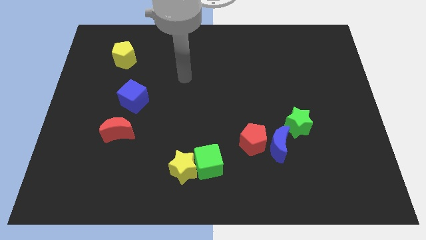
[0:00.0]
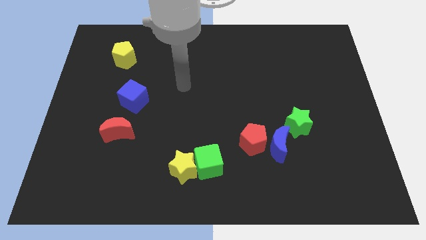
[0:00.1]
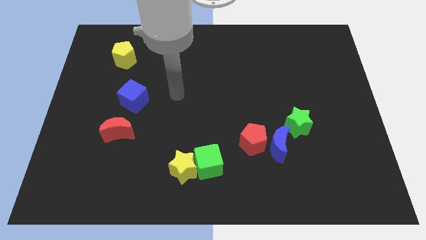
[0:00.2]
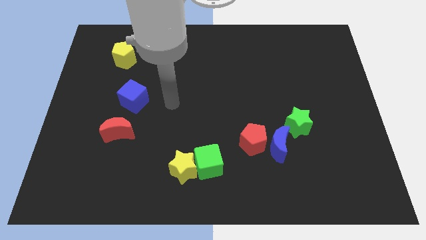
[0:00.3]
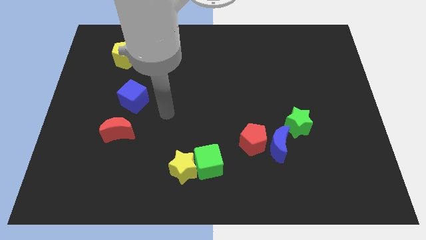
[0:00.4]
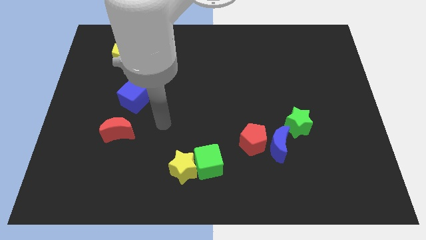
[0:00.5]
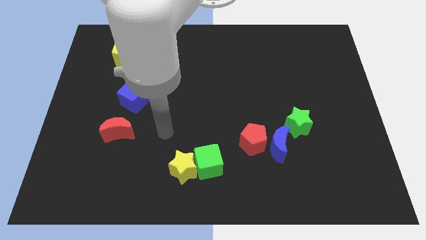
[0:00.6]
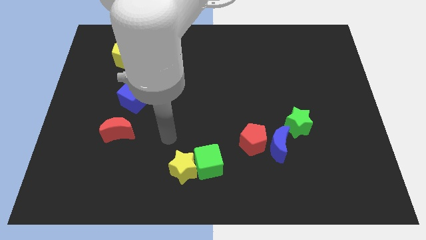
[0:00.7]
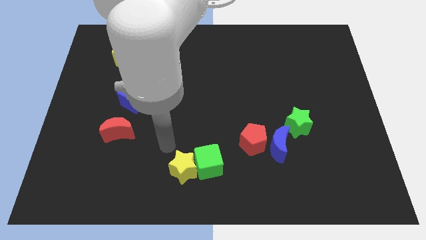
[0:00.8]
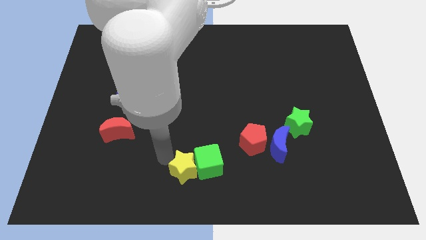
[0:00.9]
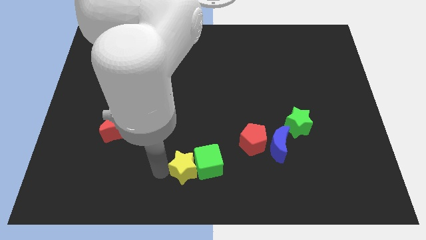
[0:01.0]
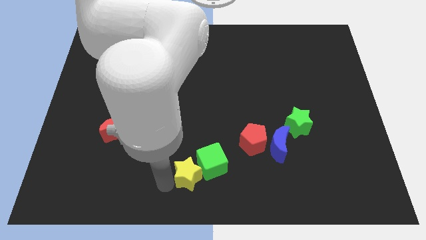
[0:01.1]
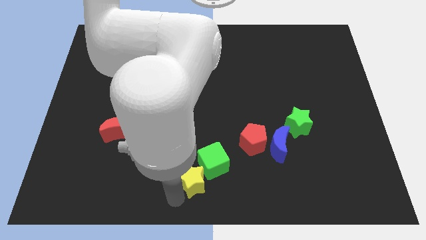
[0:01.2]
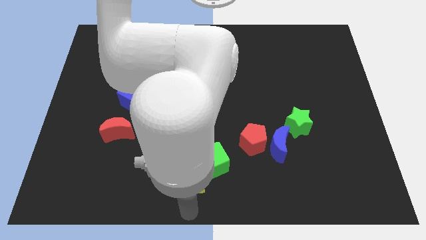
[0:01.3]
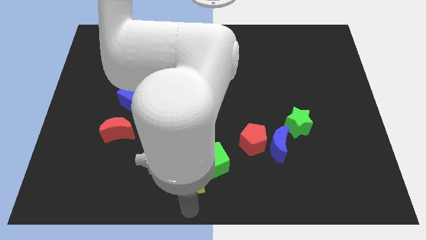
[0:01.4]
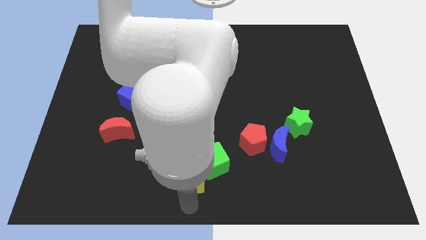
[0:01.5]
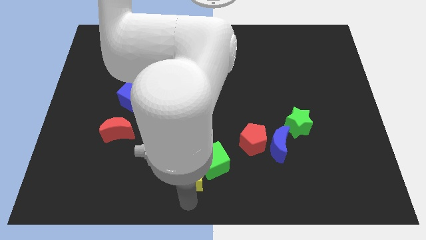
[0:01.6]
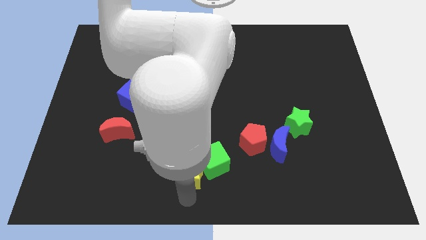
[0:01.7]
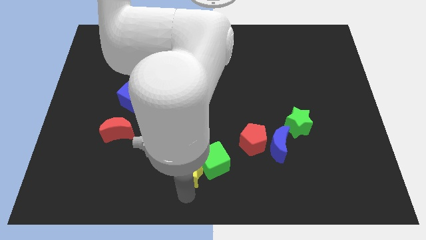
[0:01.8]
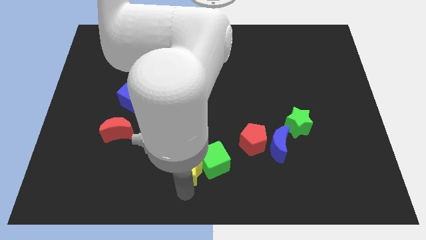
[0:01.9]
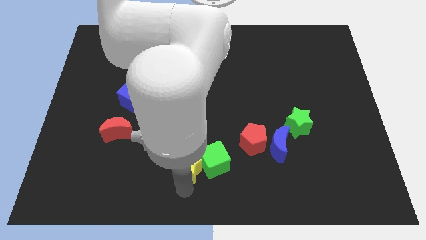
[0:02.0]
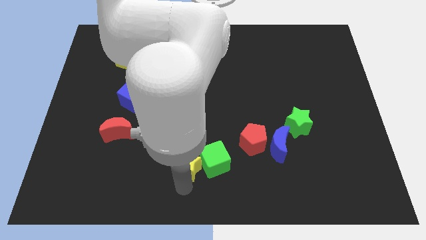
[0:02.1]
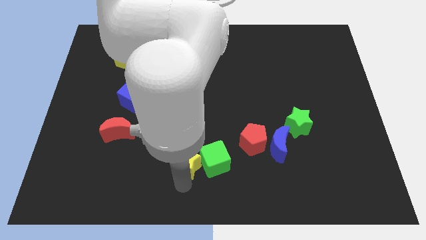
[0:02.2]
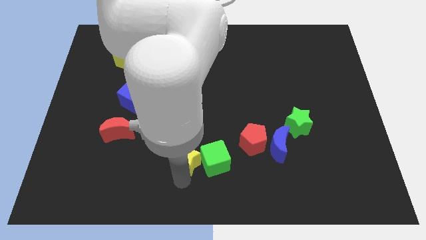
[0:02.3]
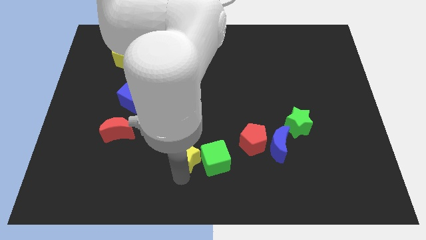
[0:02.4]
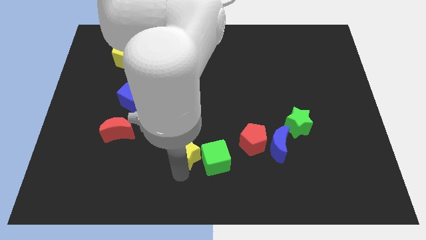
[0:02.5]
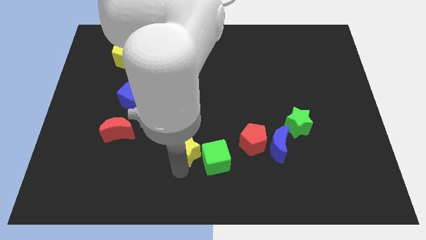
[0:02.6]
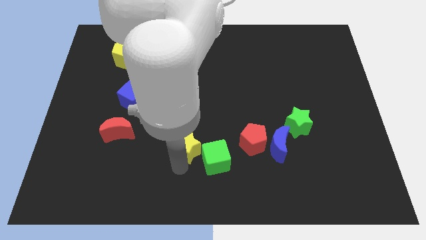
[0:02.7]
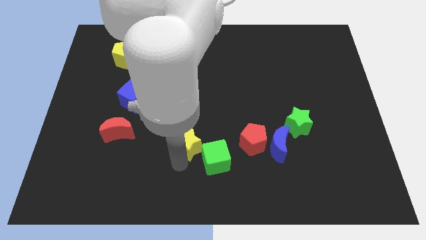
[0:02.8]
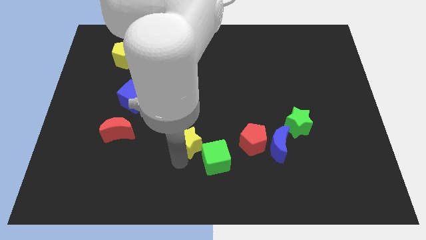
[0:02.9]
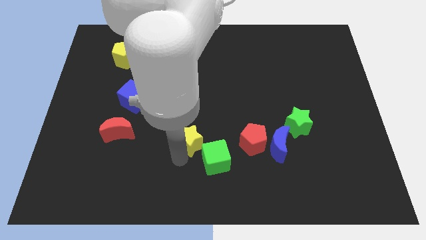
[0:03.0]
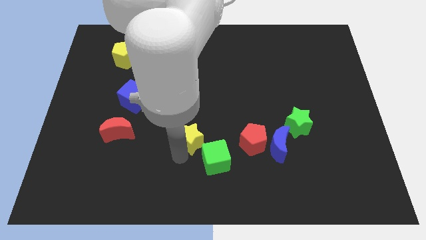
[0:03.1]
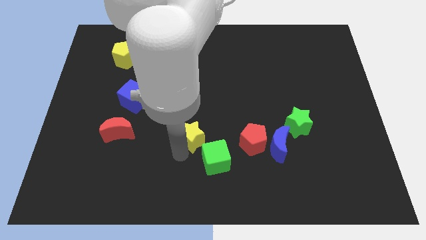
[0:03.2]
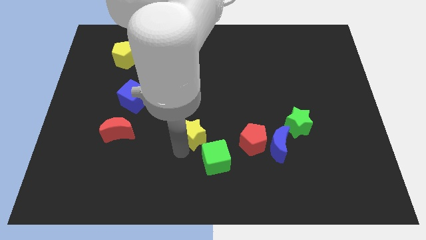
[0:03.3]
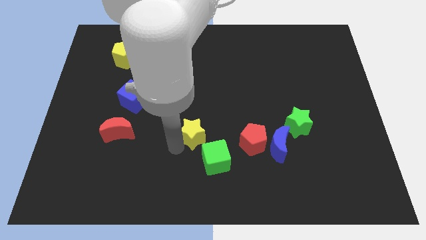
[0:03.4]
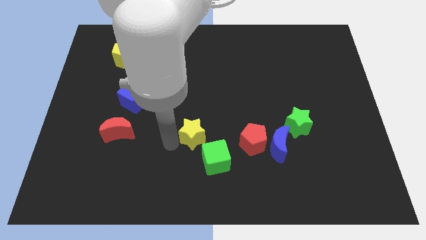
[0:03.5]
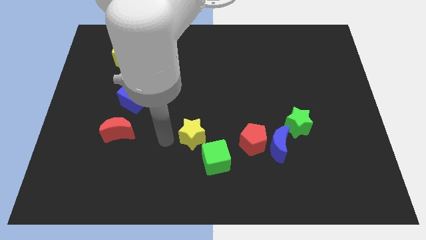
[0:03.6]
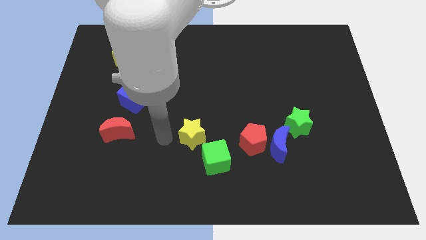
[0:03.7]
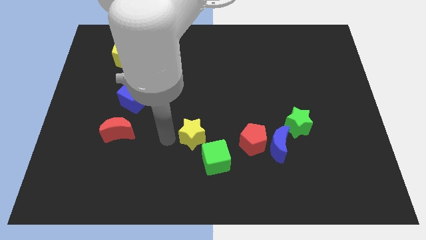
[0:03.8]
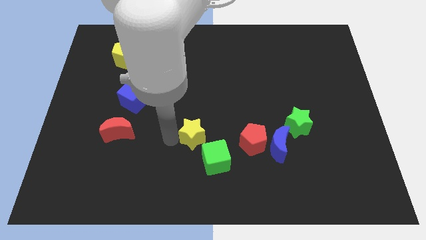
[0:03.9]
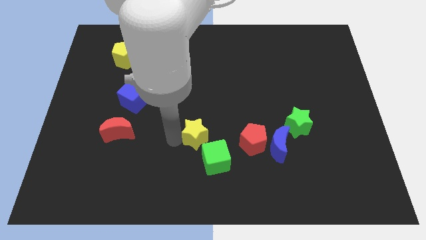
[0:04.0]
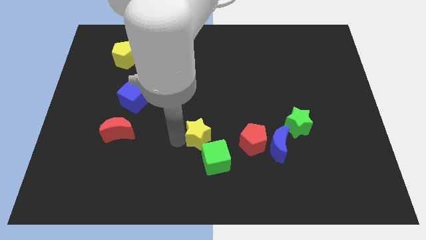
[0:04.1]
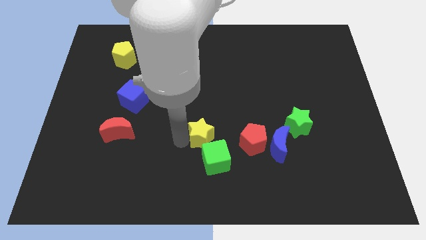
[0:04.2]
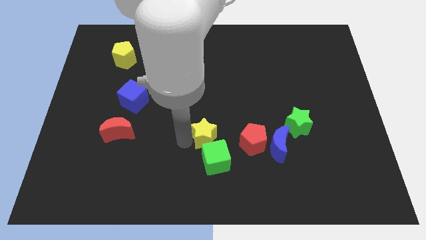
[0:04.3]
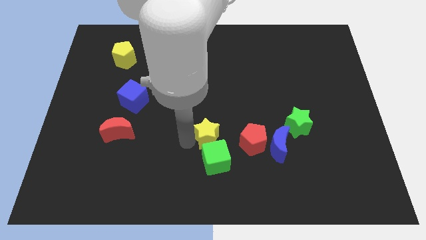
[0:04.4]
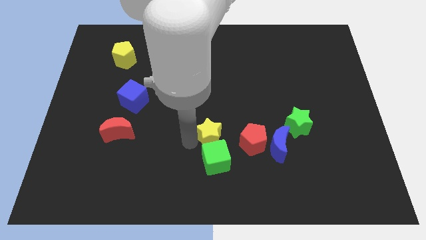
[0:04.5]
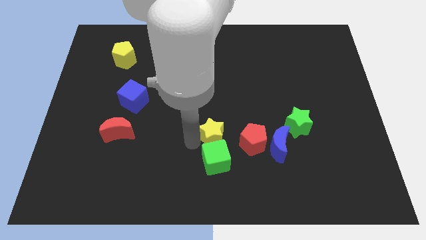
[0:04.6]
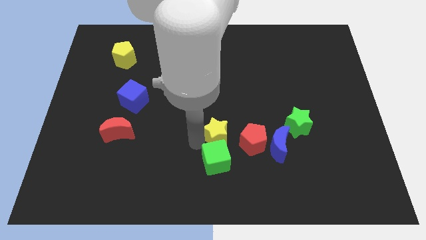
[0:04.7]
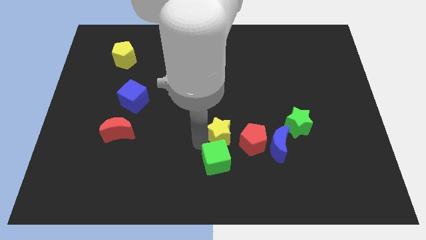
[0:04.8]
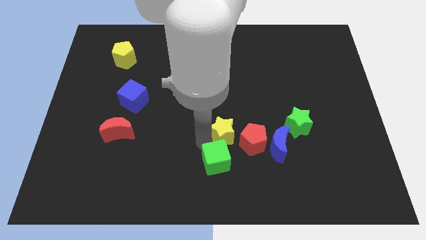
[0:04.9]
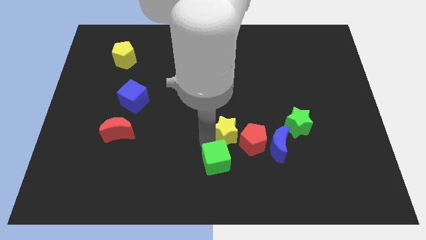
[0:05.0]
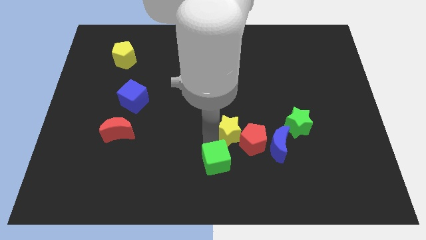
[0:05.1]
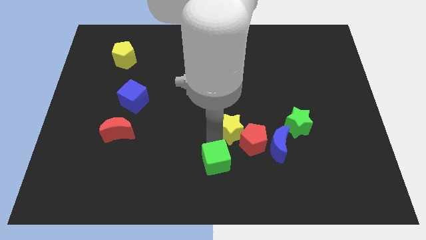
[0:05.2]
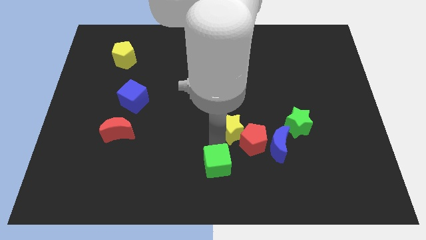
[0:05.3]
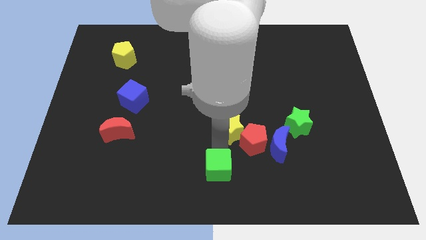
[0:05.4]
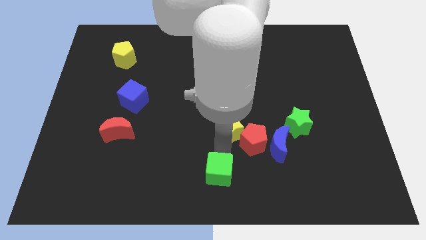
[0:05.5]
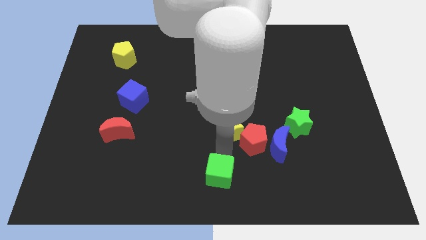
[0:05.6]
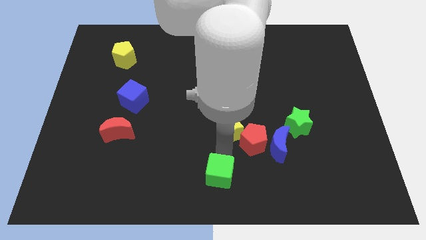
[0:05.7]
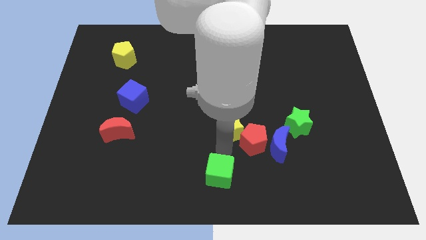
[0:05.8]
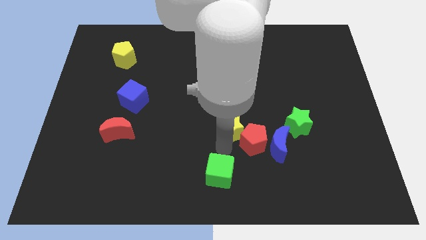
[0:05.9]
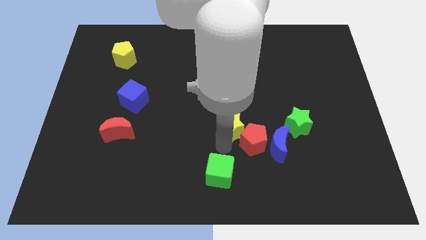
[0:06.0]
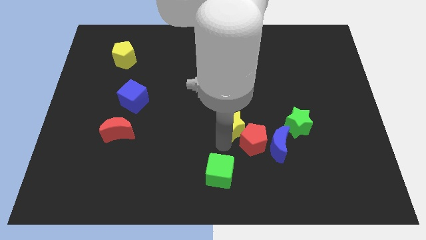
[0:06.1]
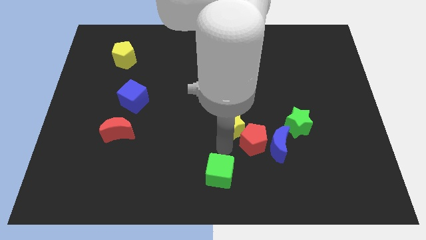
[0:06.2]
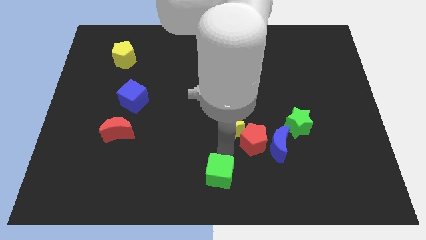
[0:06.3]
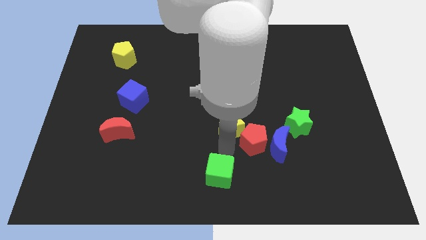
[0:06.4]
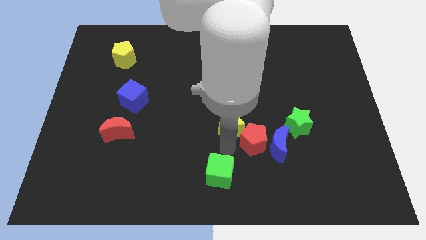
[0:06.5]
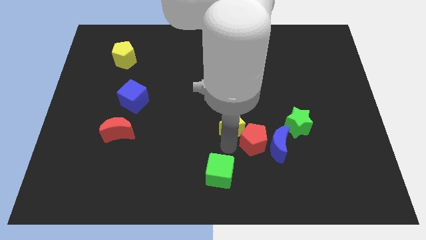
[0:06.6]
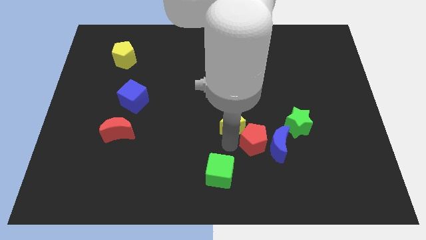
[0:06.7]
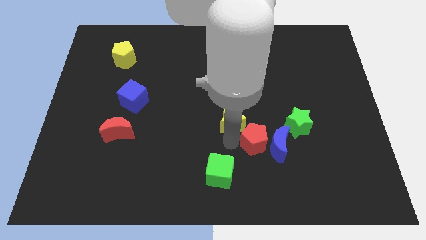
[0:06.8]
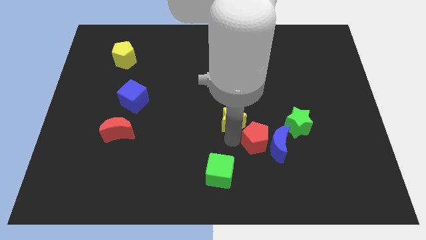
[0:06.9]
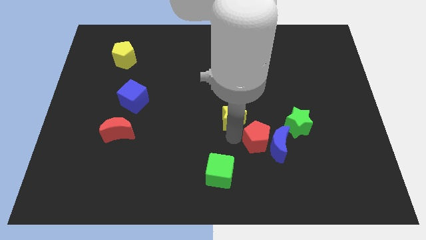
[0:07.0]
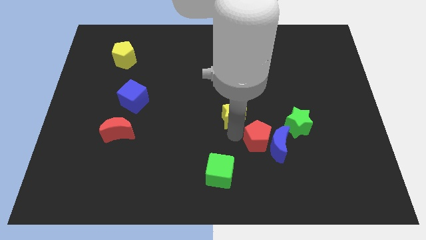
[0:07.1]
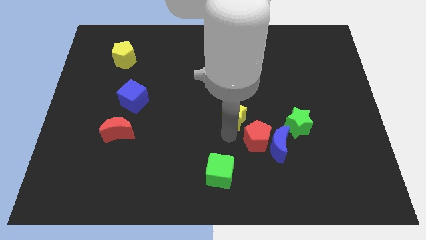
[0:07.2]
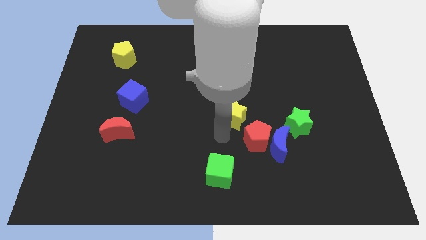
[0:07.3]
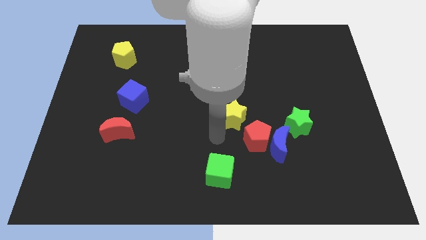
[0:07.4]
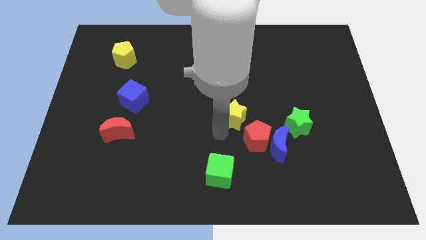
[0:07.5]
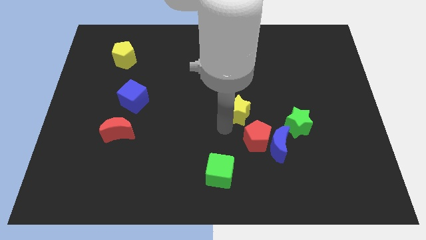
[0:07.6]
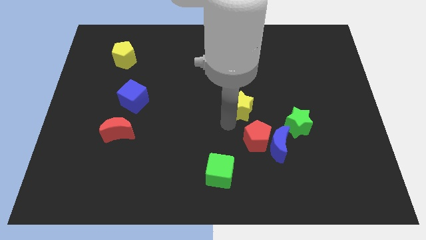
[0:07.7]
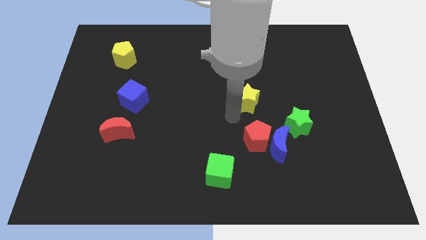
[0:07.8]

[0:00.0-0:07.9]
move the yellow star up and right

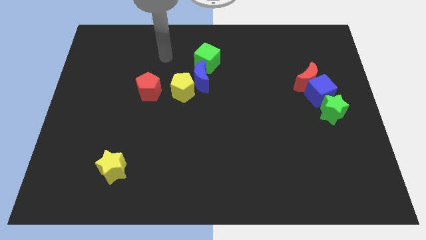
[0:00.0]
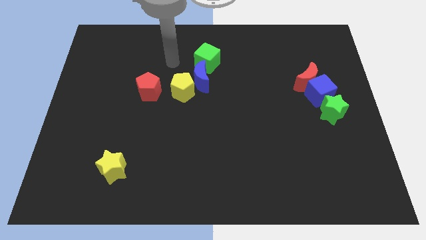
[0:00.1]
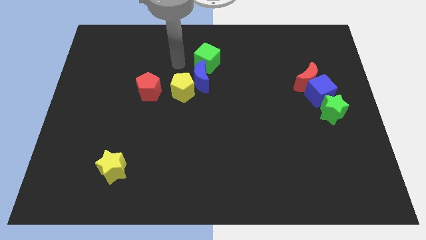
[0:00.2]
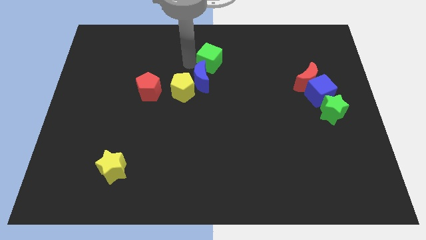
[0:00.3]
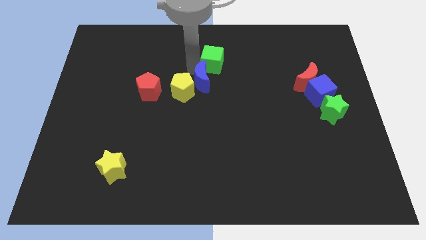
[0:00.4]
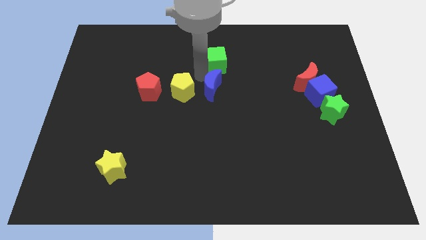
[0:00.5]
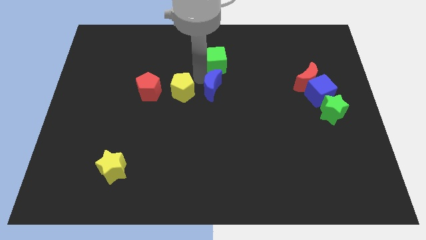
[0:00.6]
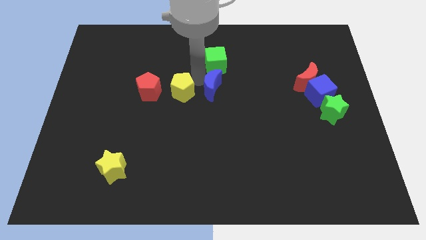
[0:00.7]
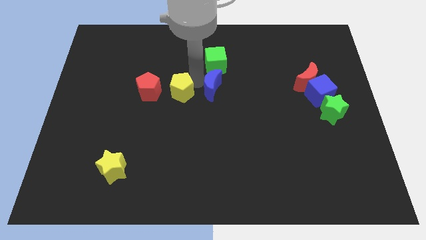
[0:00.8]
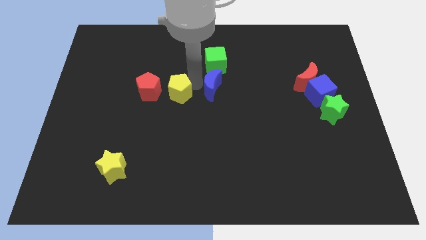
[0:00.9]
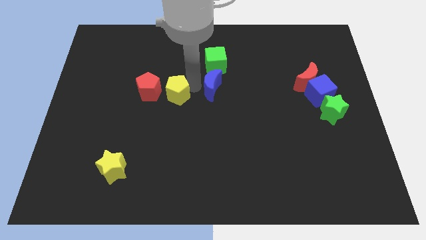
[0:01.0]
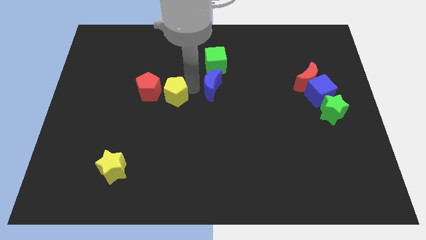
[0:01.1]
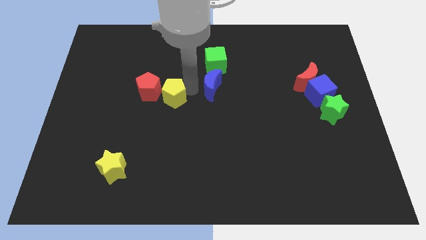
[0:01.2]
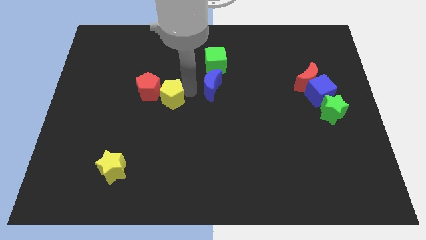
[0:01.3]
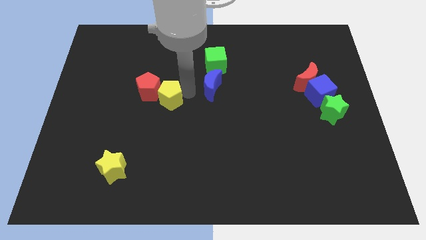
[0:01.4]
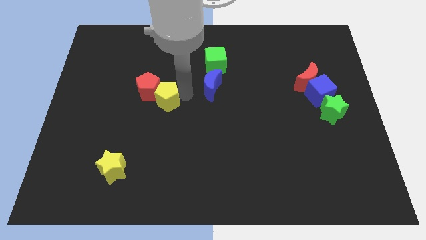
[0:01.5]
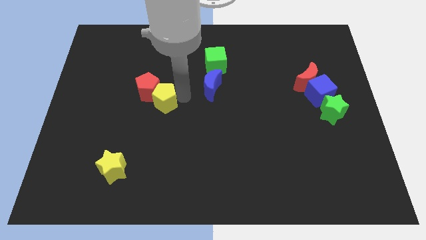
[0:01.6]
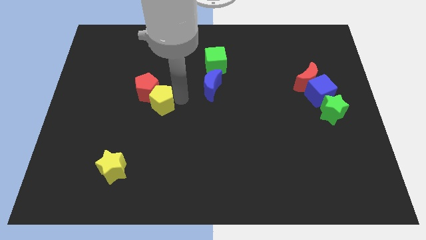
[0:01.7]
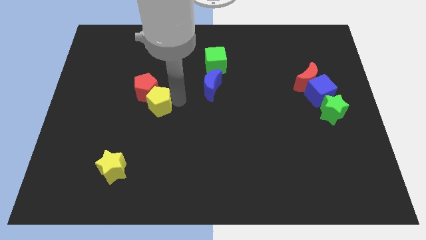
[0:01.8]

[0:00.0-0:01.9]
slightly push the yellow pentagon downwards and to the left
